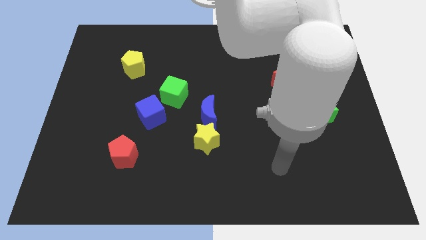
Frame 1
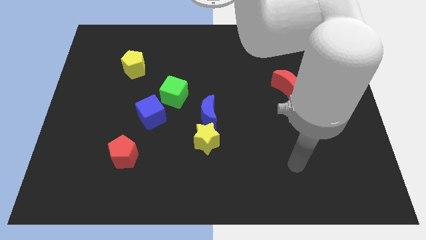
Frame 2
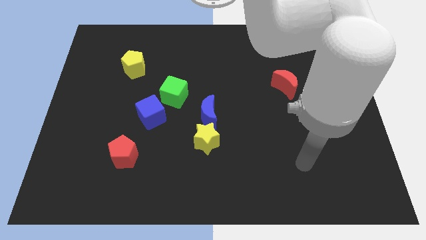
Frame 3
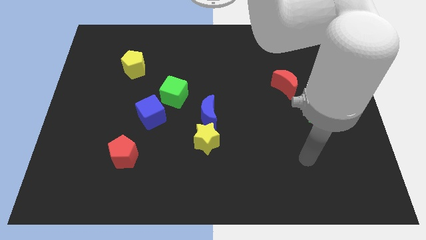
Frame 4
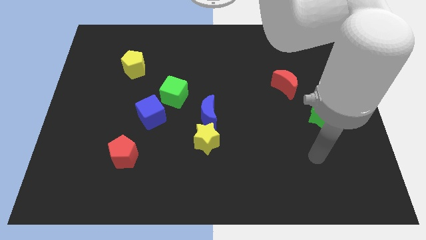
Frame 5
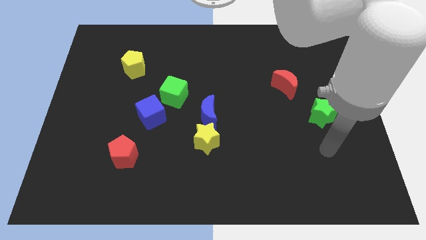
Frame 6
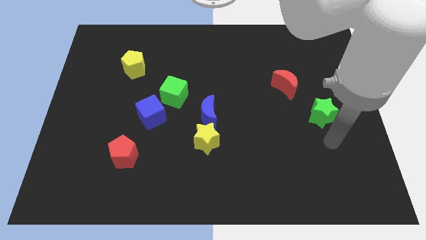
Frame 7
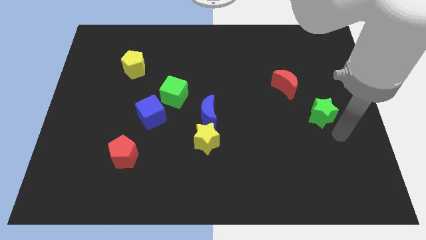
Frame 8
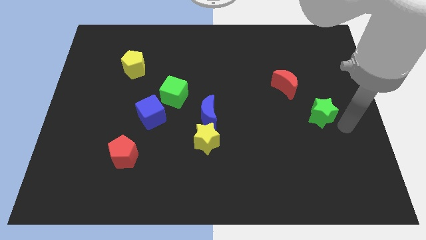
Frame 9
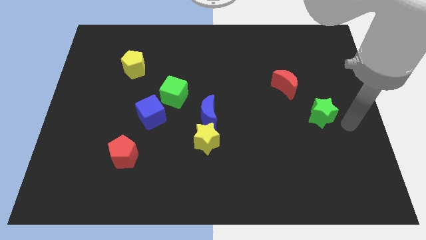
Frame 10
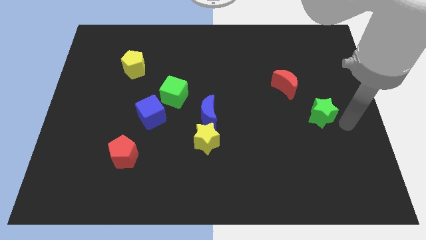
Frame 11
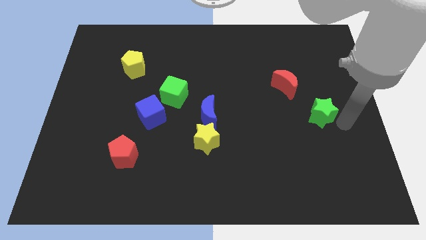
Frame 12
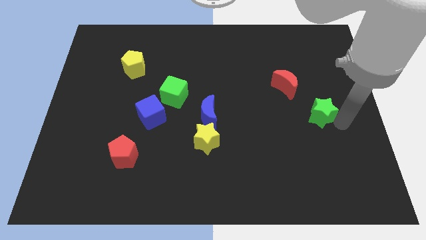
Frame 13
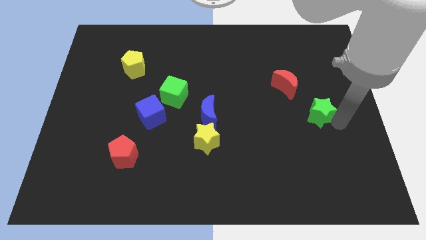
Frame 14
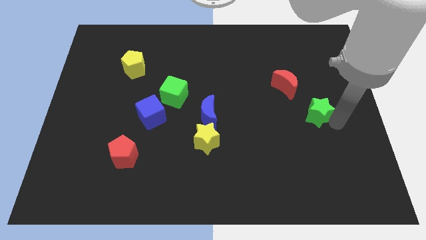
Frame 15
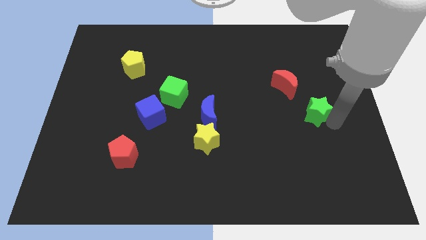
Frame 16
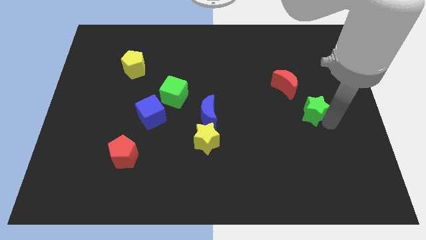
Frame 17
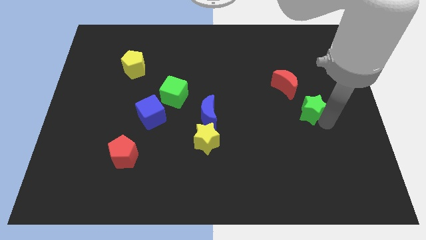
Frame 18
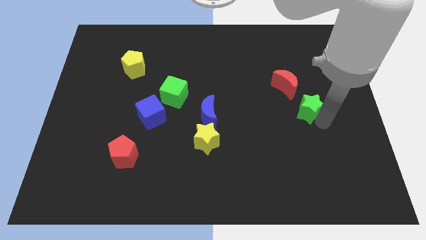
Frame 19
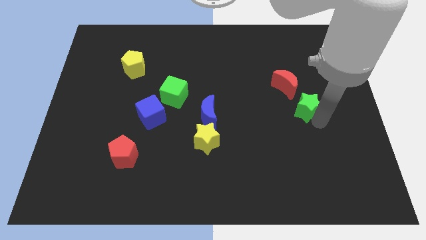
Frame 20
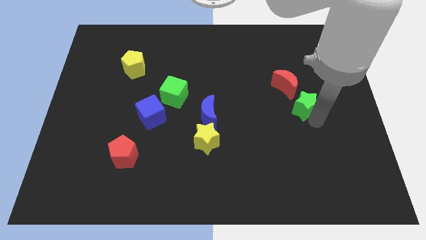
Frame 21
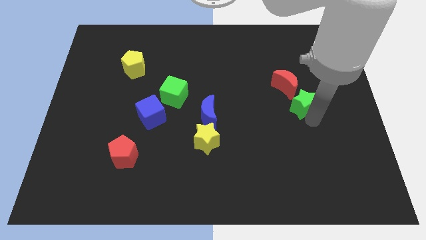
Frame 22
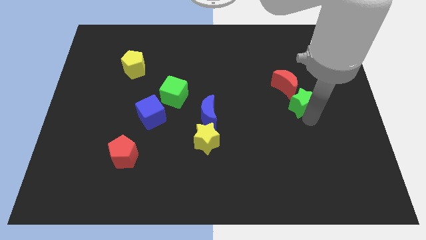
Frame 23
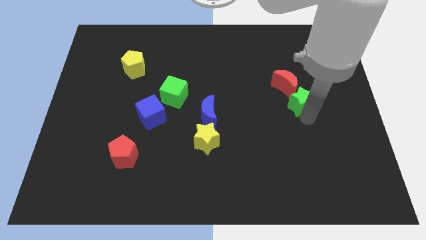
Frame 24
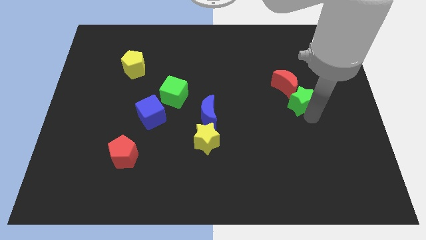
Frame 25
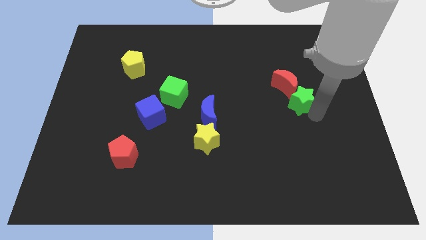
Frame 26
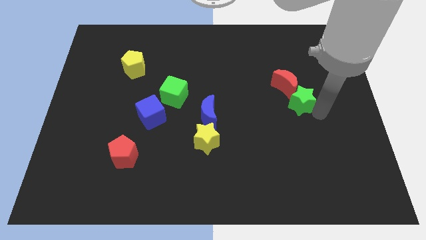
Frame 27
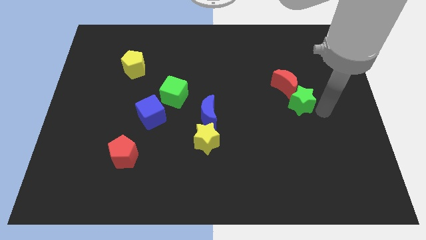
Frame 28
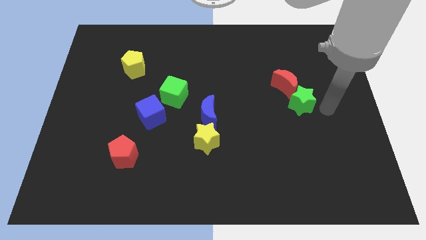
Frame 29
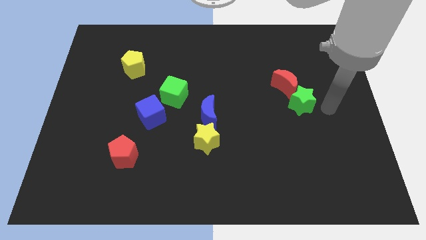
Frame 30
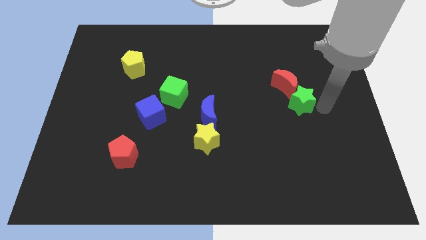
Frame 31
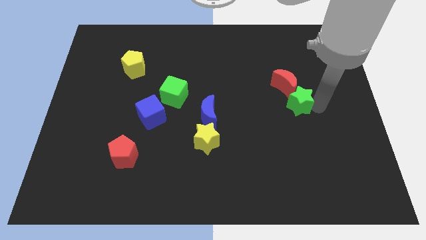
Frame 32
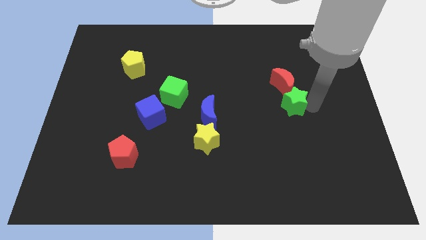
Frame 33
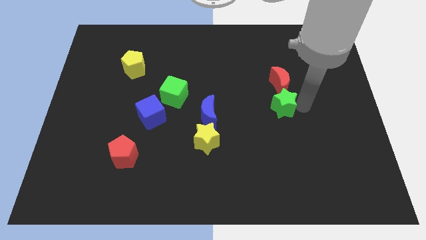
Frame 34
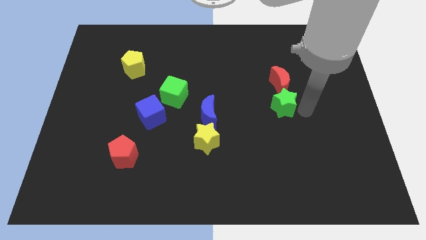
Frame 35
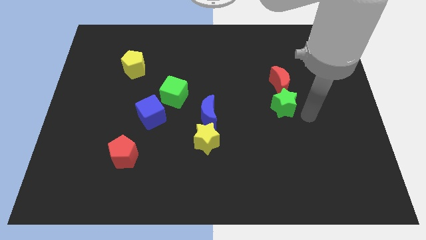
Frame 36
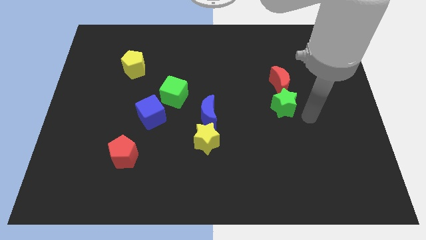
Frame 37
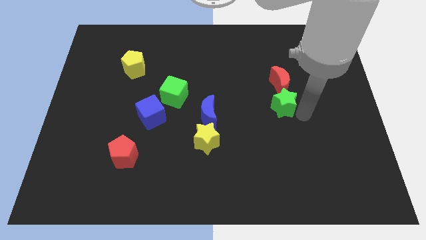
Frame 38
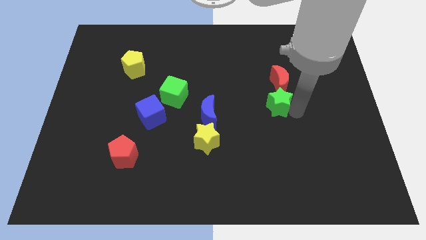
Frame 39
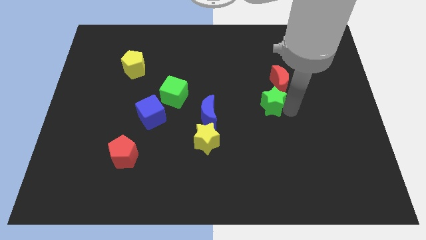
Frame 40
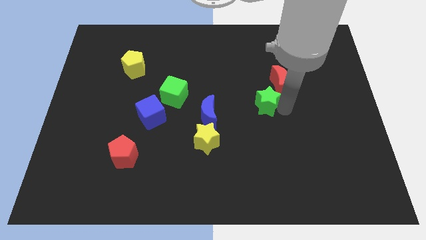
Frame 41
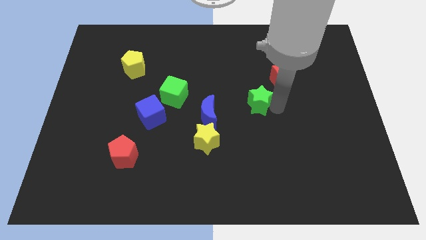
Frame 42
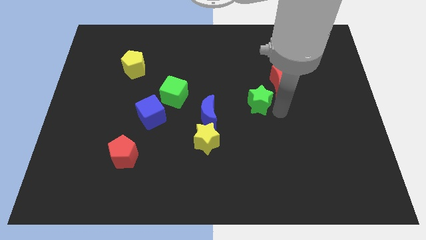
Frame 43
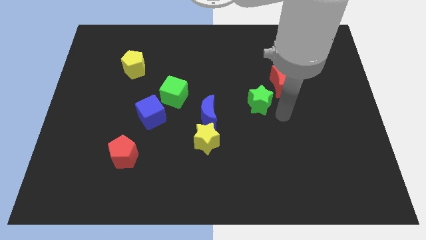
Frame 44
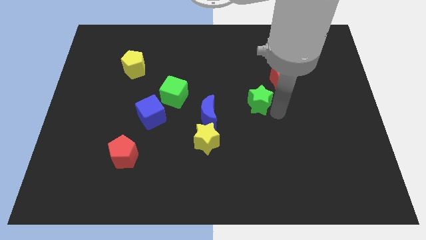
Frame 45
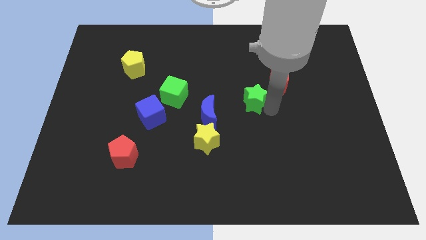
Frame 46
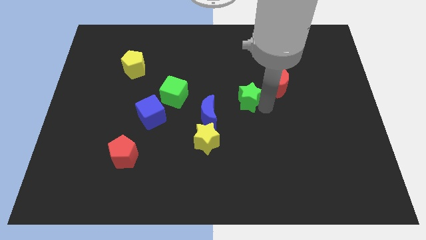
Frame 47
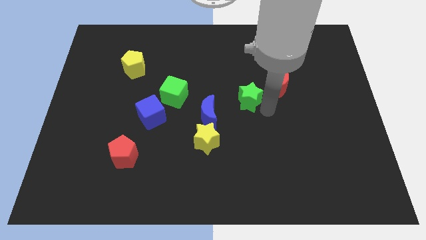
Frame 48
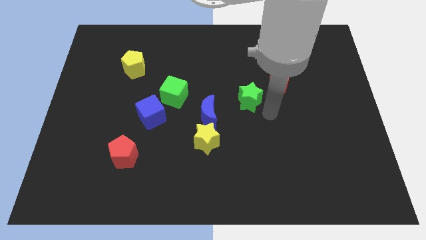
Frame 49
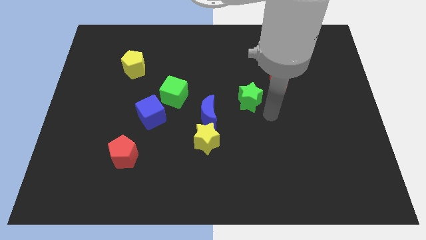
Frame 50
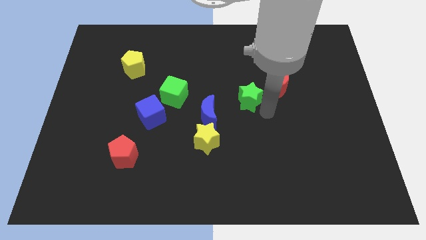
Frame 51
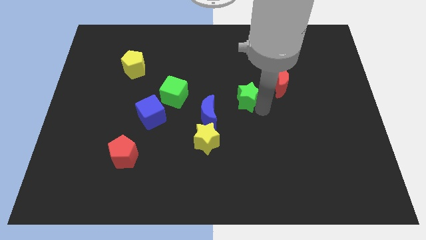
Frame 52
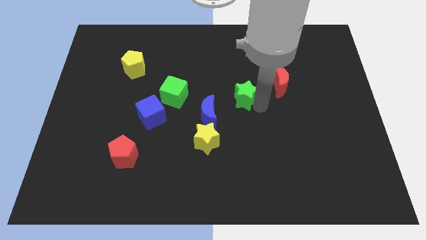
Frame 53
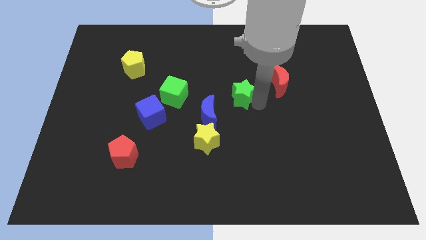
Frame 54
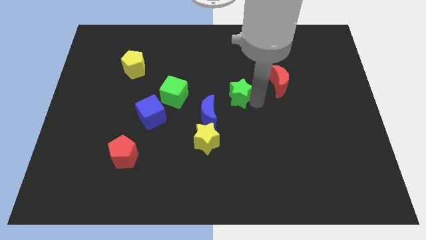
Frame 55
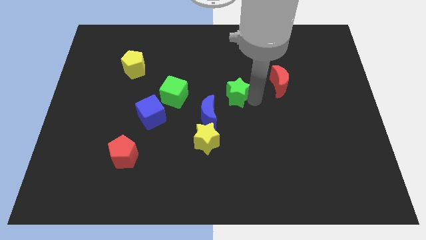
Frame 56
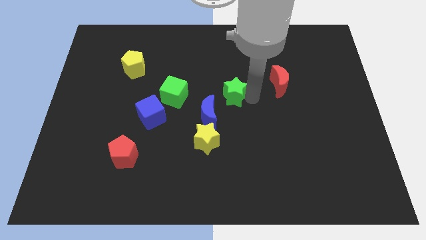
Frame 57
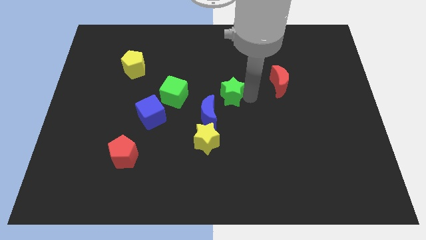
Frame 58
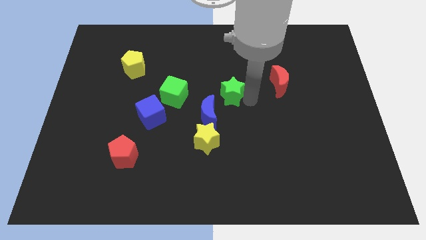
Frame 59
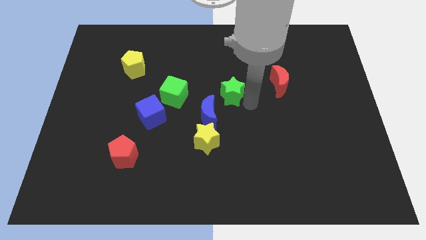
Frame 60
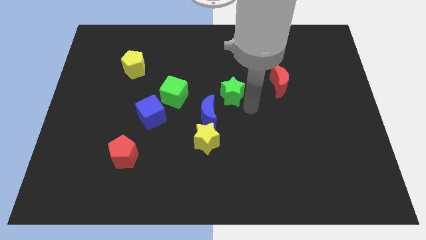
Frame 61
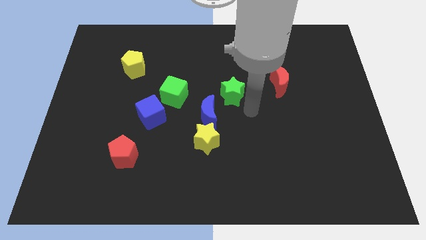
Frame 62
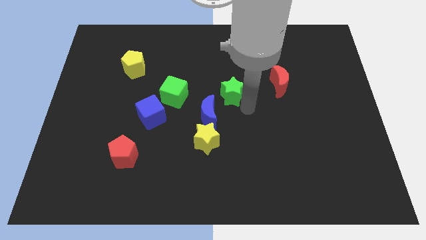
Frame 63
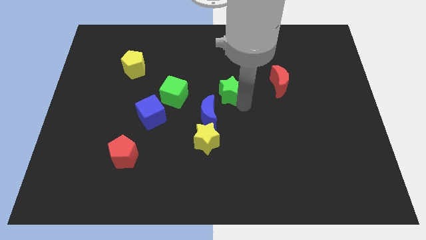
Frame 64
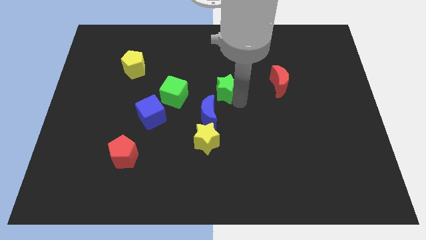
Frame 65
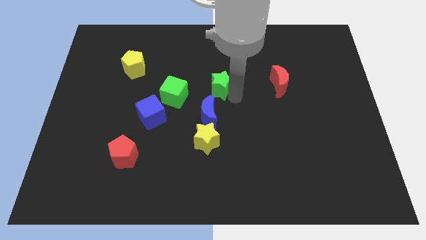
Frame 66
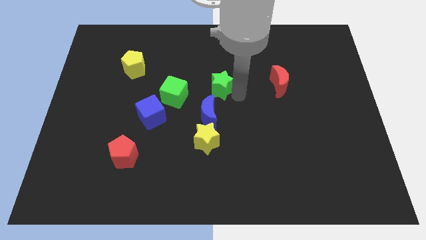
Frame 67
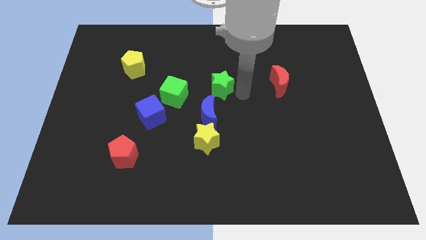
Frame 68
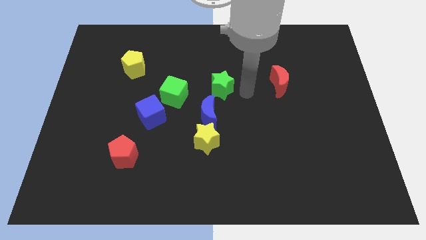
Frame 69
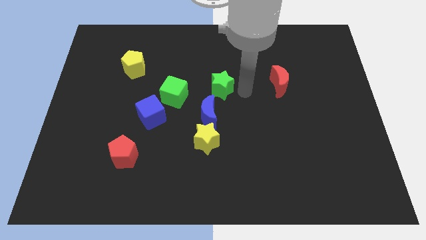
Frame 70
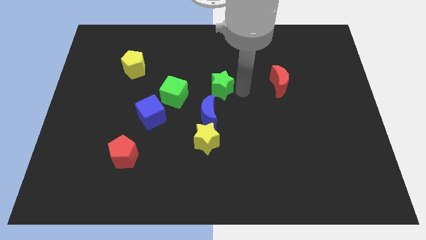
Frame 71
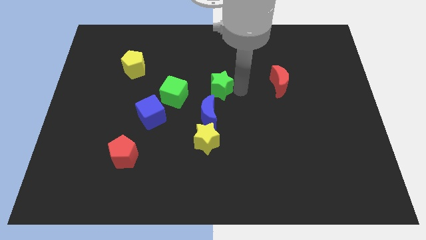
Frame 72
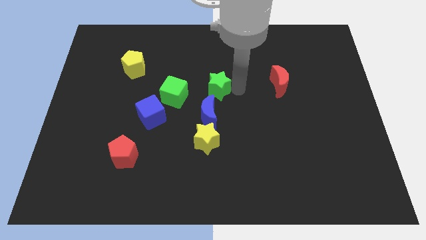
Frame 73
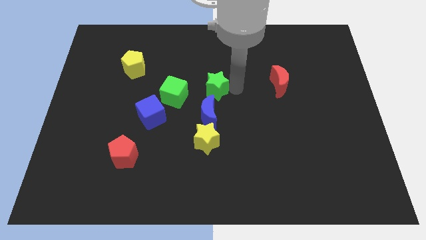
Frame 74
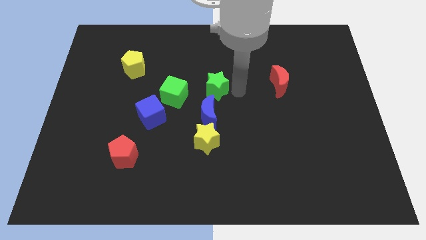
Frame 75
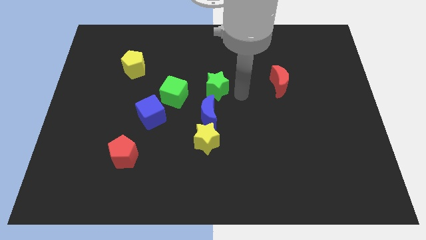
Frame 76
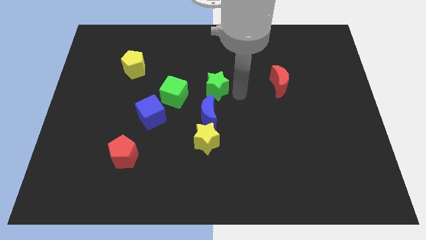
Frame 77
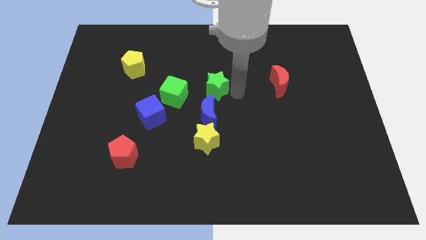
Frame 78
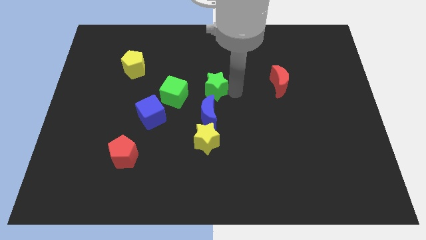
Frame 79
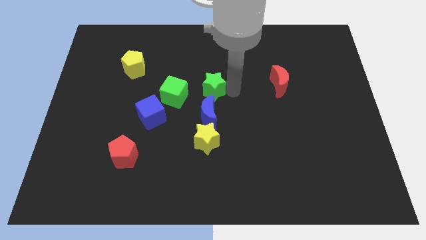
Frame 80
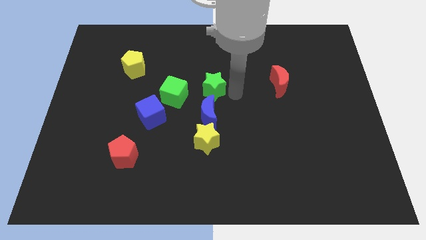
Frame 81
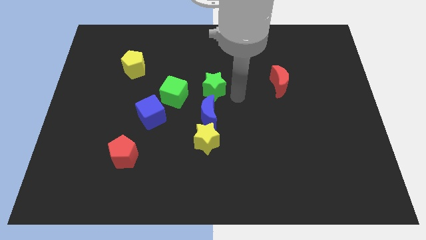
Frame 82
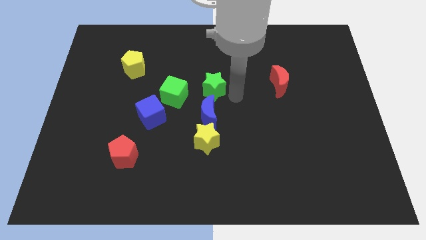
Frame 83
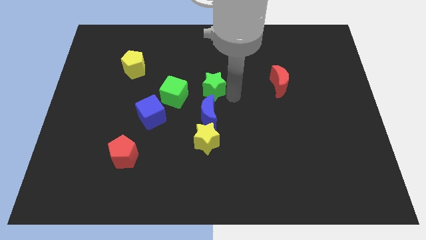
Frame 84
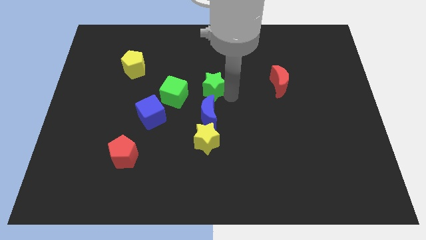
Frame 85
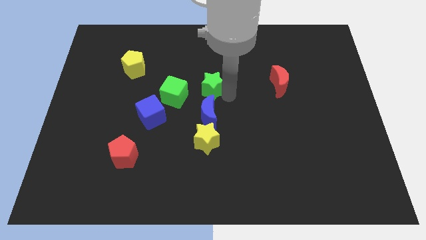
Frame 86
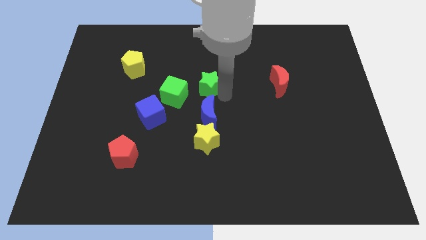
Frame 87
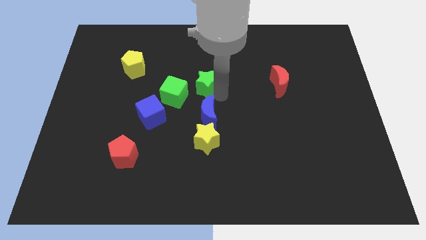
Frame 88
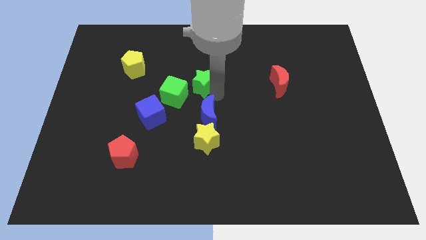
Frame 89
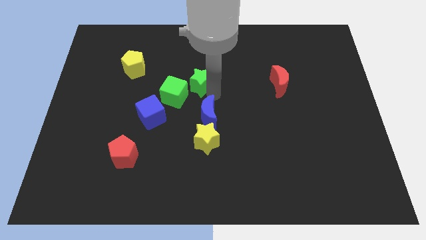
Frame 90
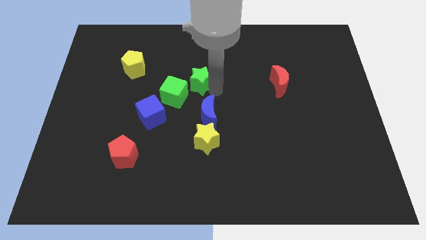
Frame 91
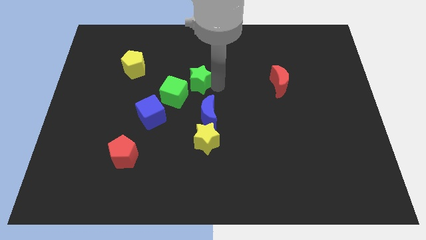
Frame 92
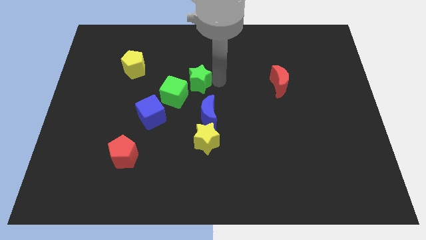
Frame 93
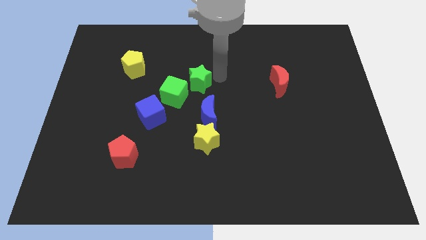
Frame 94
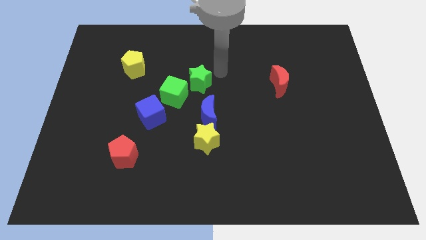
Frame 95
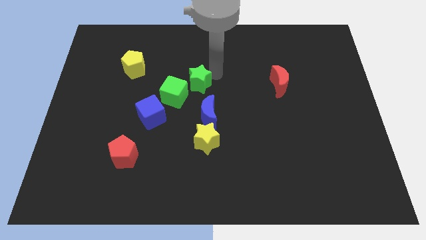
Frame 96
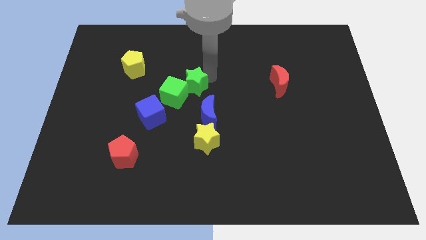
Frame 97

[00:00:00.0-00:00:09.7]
move the green star close to the green cube
